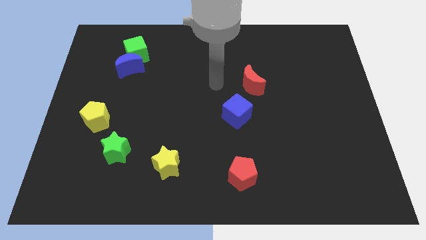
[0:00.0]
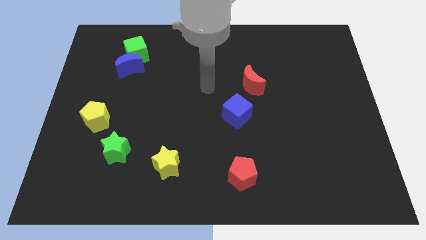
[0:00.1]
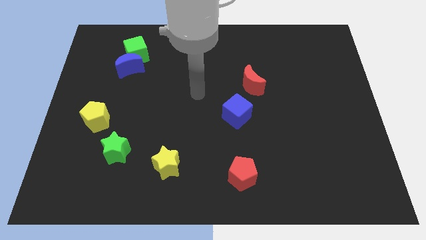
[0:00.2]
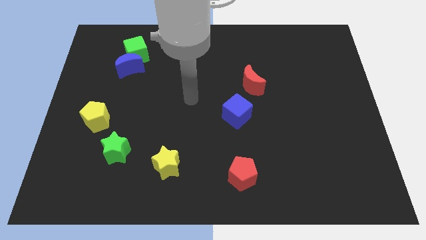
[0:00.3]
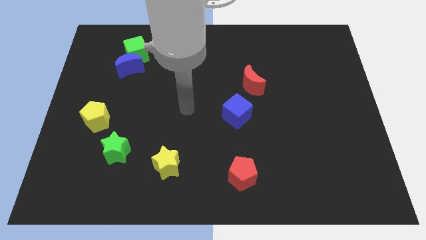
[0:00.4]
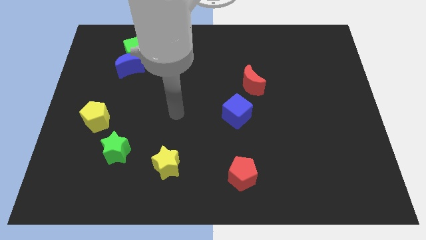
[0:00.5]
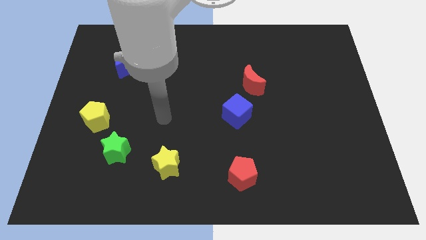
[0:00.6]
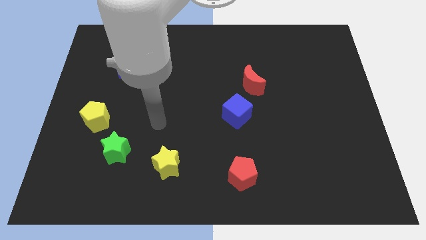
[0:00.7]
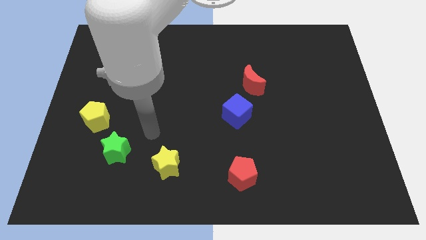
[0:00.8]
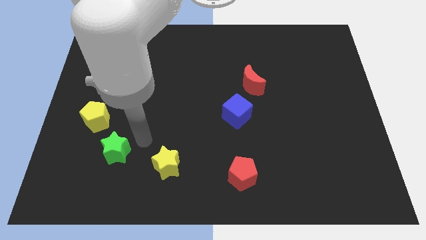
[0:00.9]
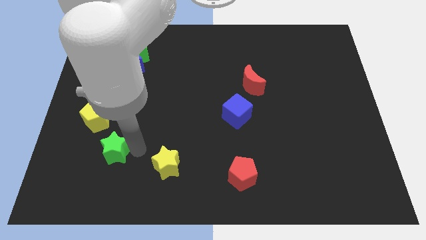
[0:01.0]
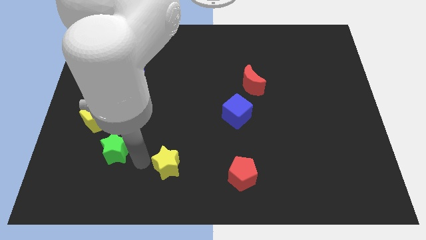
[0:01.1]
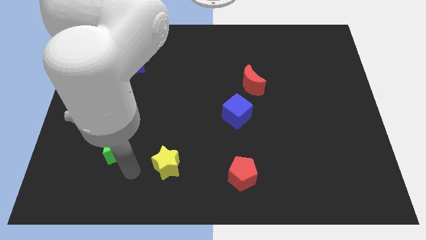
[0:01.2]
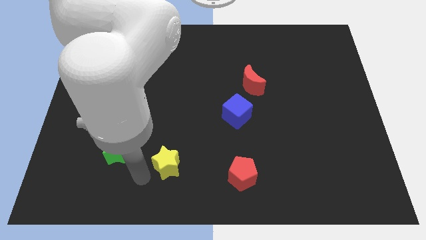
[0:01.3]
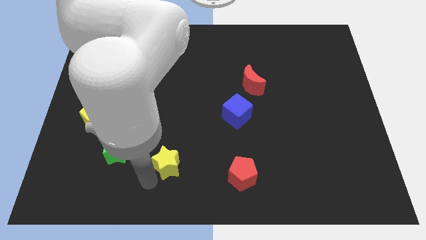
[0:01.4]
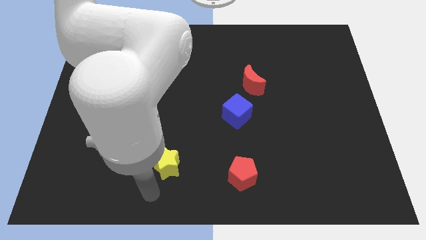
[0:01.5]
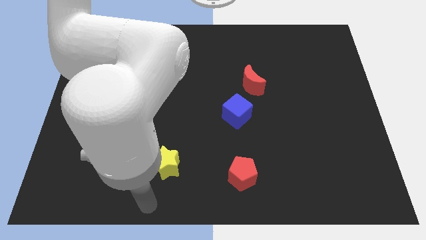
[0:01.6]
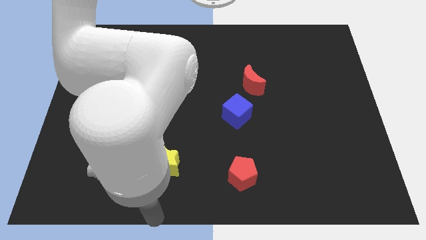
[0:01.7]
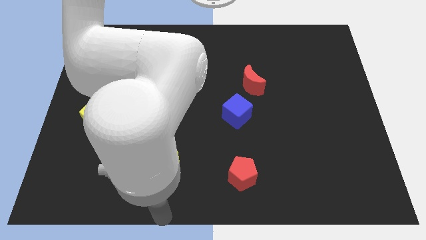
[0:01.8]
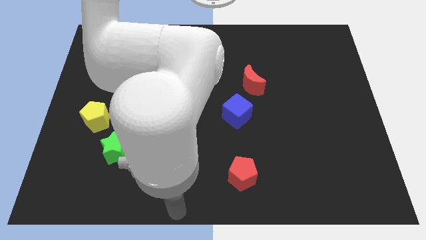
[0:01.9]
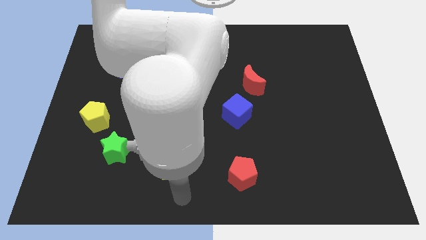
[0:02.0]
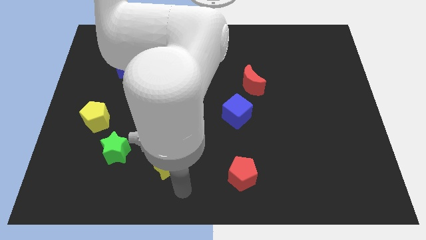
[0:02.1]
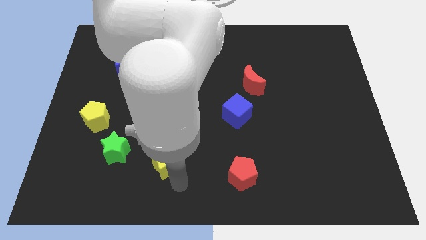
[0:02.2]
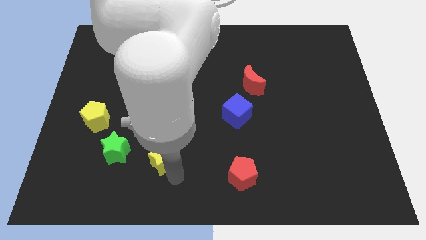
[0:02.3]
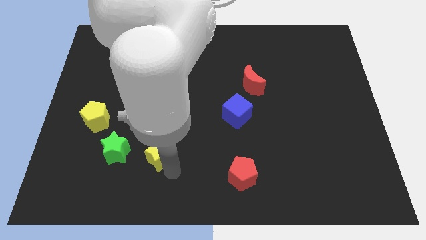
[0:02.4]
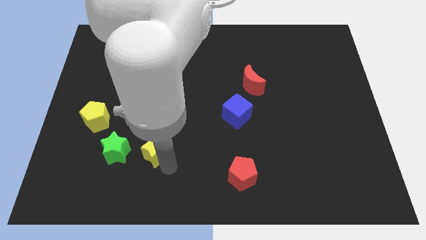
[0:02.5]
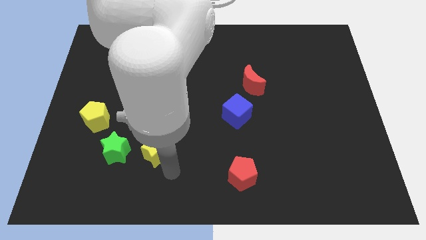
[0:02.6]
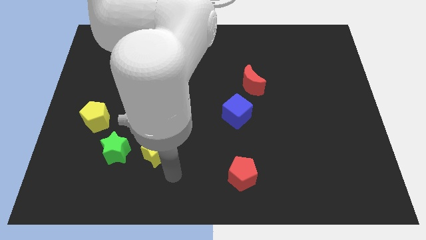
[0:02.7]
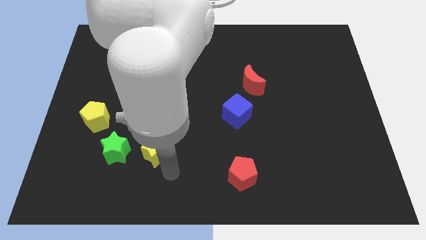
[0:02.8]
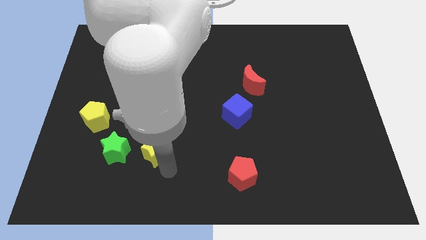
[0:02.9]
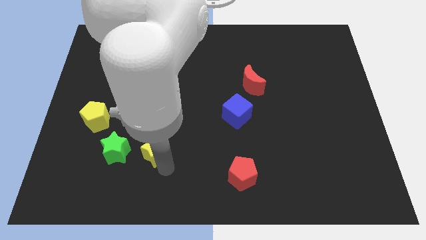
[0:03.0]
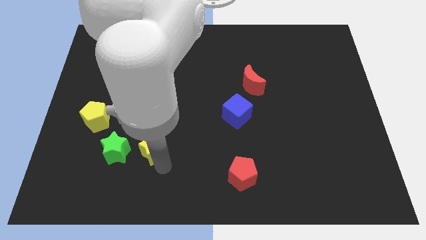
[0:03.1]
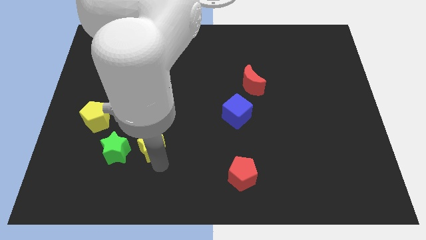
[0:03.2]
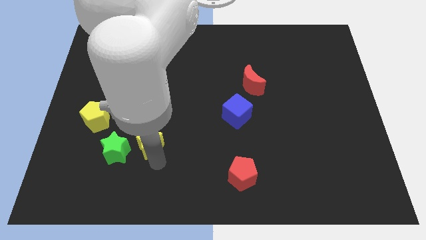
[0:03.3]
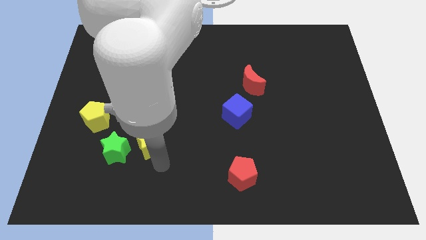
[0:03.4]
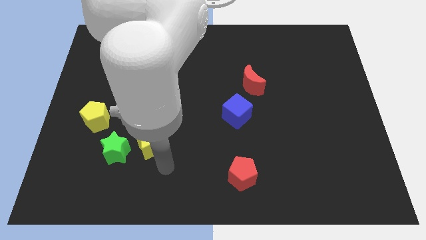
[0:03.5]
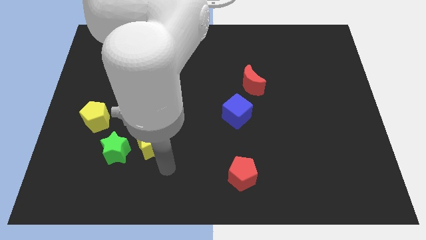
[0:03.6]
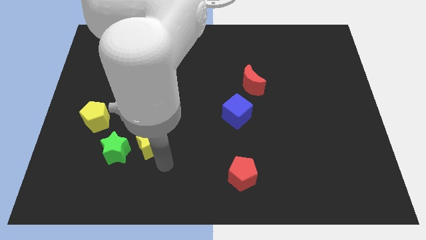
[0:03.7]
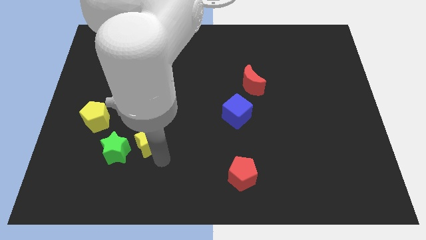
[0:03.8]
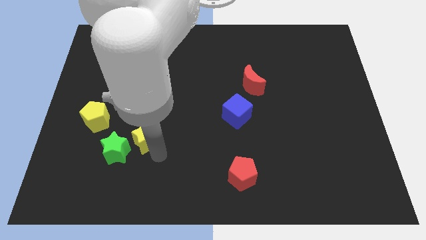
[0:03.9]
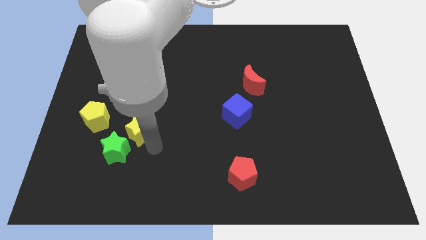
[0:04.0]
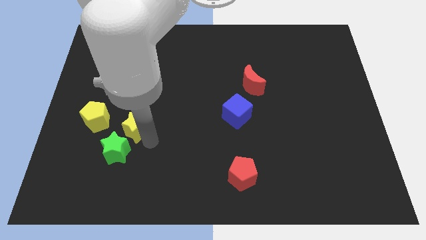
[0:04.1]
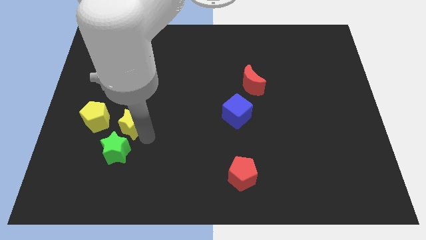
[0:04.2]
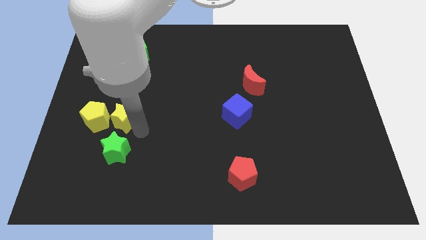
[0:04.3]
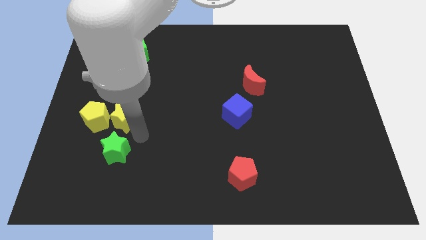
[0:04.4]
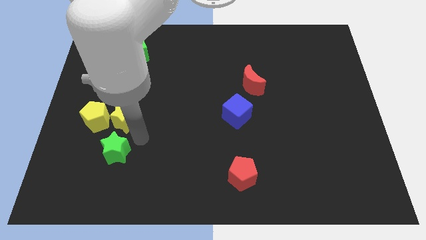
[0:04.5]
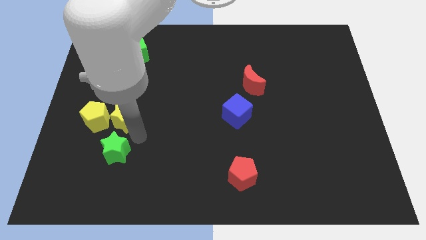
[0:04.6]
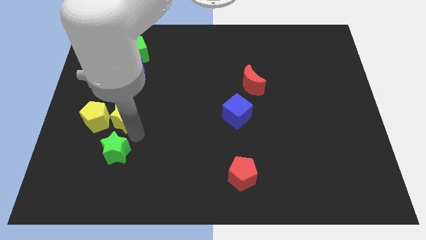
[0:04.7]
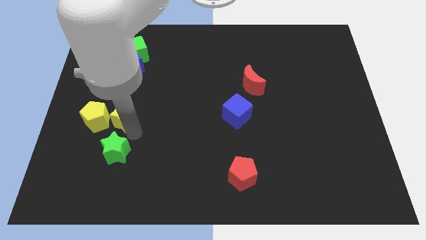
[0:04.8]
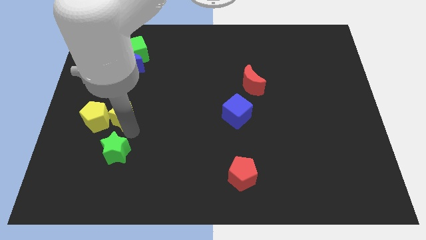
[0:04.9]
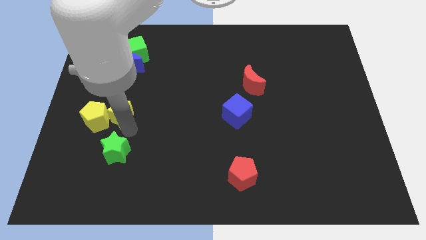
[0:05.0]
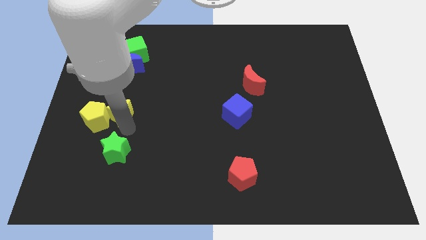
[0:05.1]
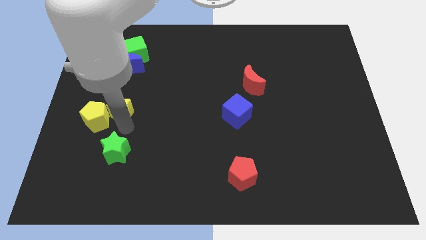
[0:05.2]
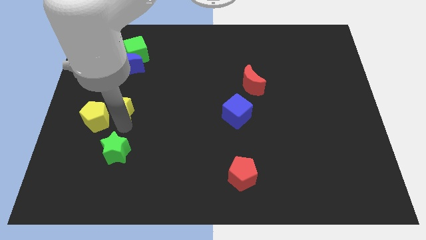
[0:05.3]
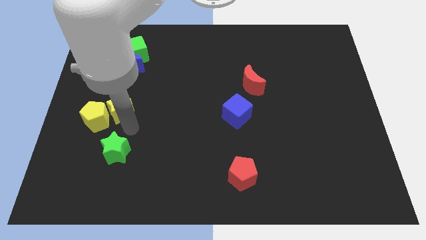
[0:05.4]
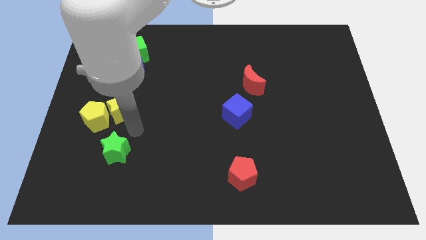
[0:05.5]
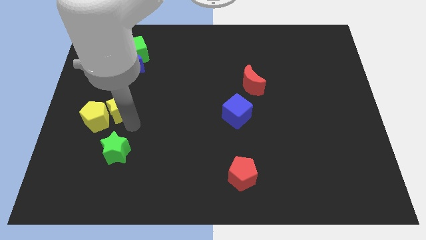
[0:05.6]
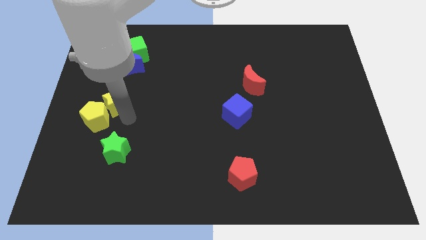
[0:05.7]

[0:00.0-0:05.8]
put the yellow star to the top of the yellow pentagon

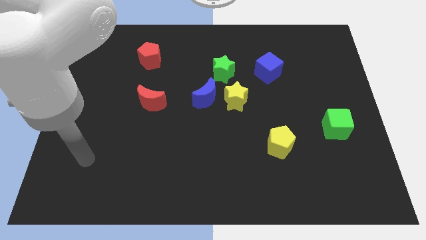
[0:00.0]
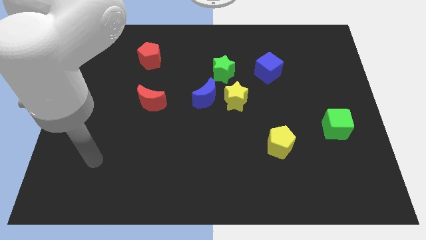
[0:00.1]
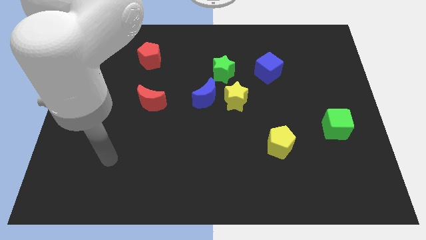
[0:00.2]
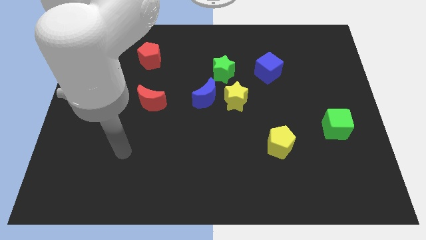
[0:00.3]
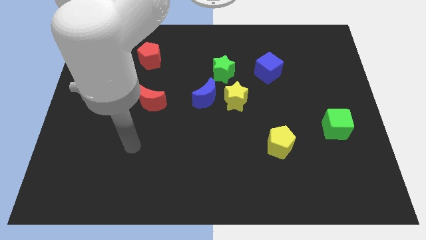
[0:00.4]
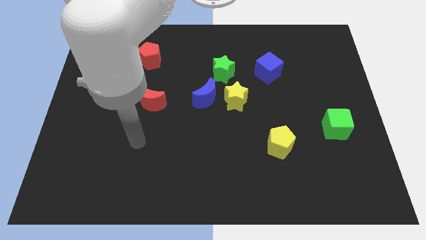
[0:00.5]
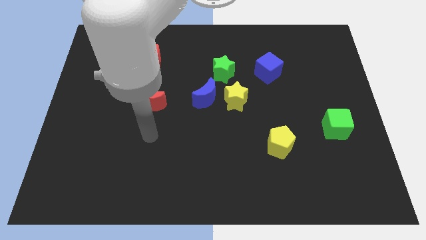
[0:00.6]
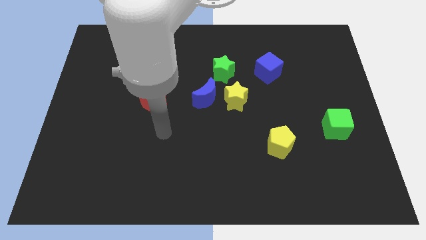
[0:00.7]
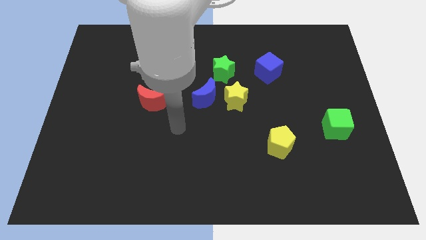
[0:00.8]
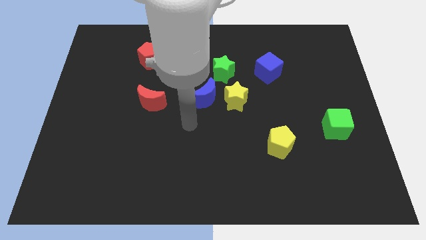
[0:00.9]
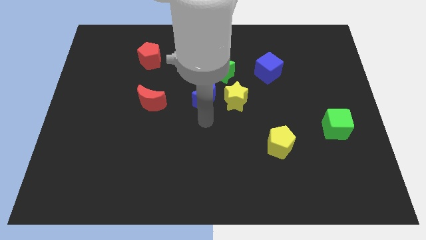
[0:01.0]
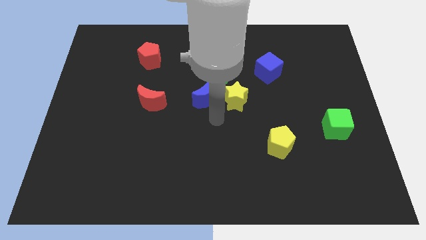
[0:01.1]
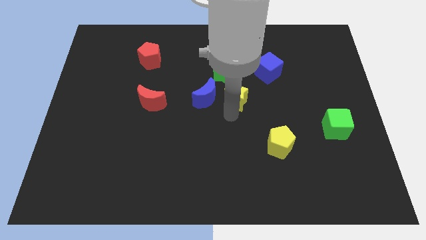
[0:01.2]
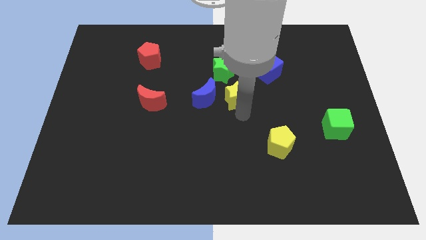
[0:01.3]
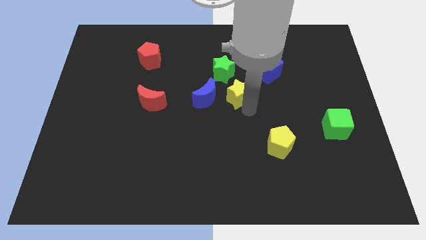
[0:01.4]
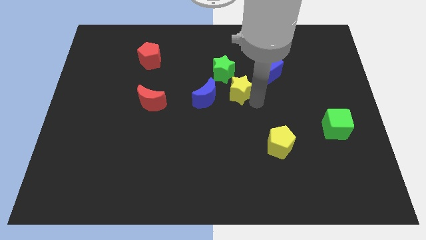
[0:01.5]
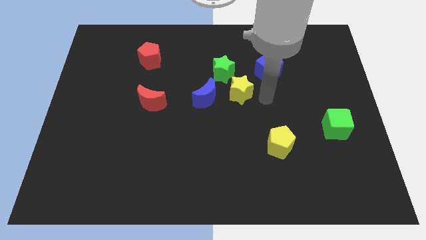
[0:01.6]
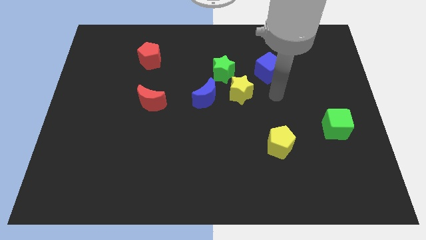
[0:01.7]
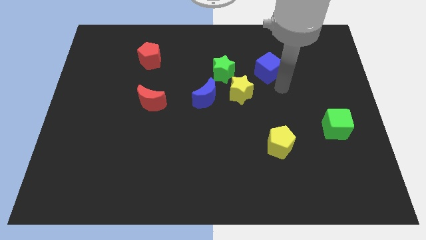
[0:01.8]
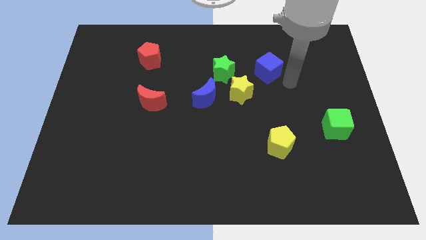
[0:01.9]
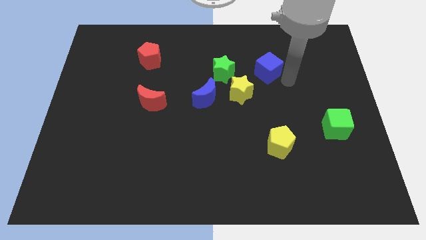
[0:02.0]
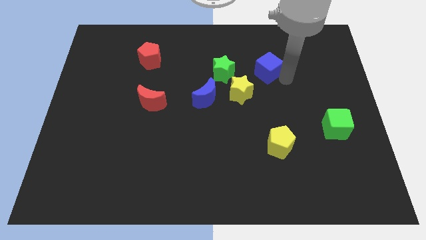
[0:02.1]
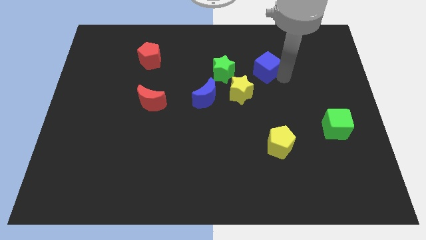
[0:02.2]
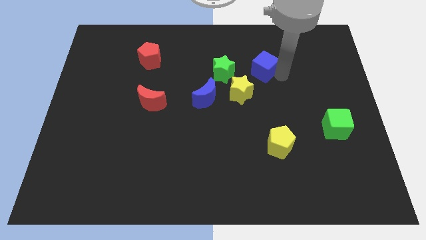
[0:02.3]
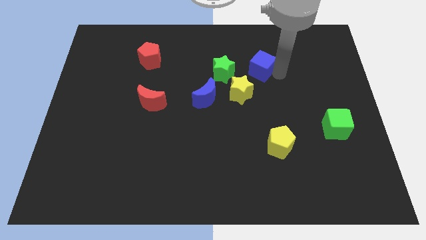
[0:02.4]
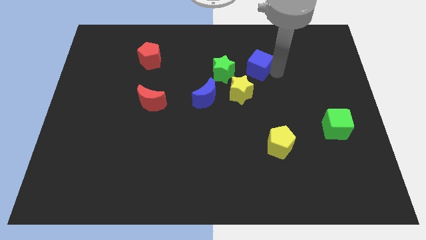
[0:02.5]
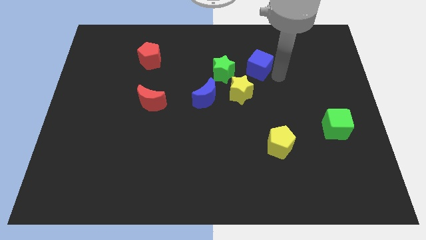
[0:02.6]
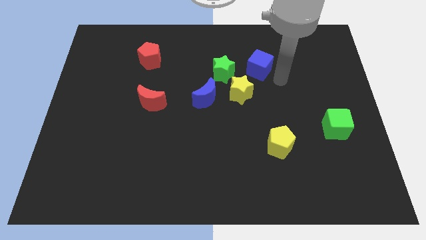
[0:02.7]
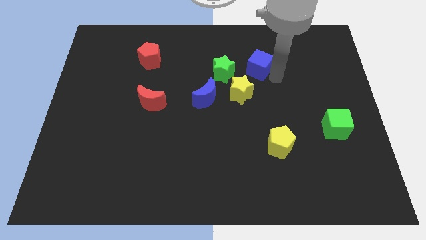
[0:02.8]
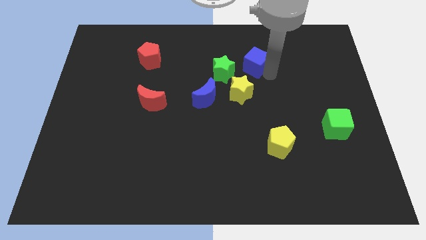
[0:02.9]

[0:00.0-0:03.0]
push the blue cube diagonally up and to the right of the green star
